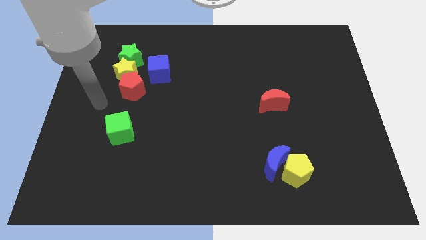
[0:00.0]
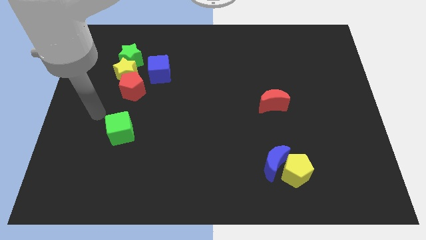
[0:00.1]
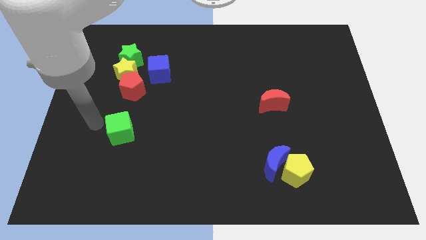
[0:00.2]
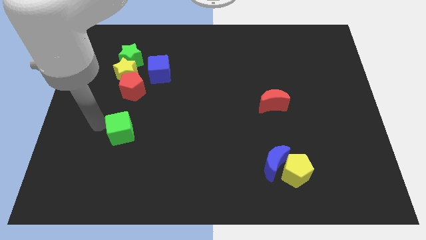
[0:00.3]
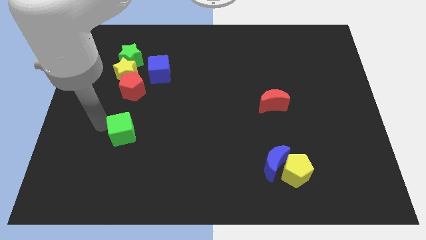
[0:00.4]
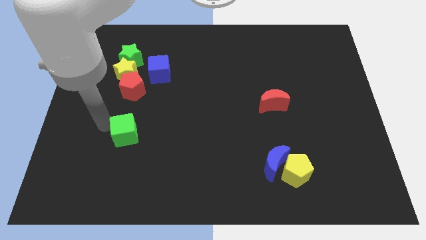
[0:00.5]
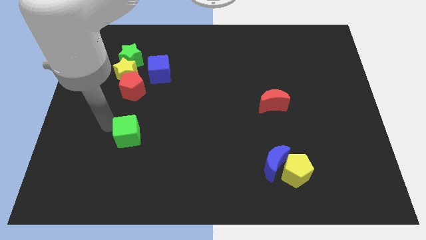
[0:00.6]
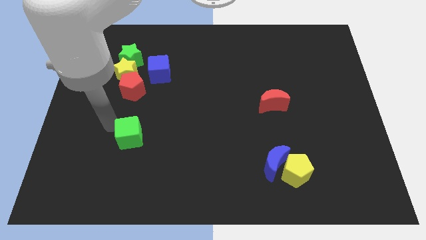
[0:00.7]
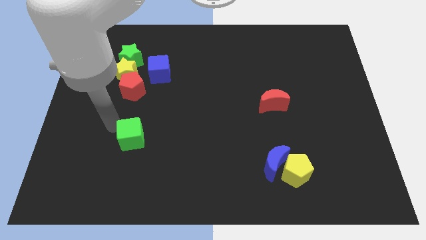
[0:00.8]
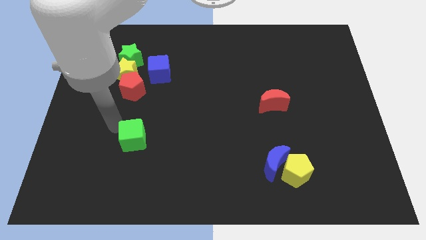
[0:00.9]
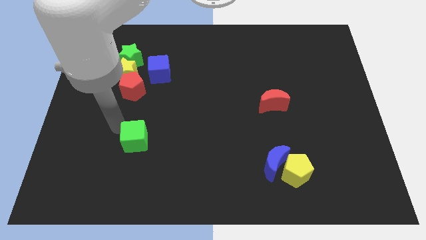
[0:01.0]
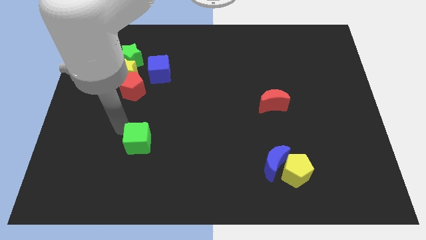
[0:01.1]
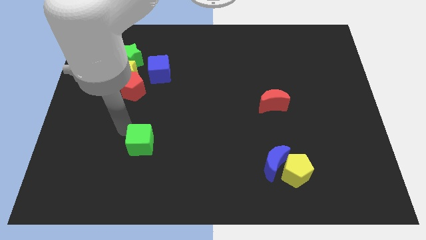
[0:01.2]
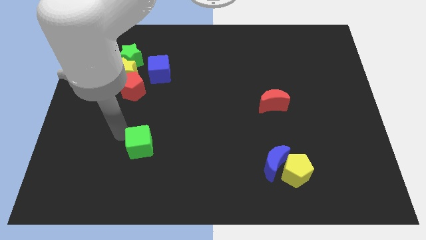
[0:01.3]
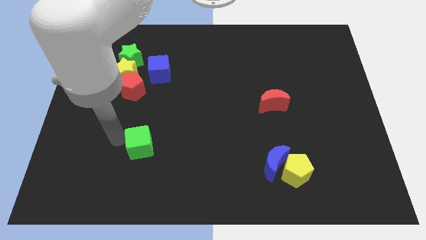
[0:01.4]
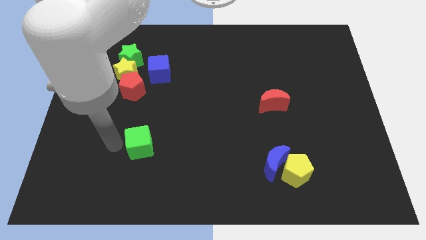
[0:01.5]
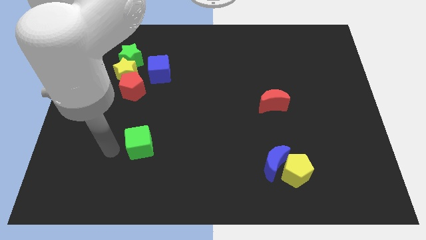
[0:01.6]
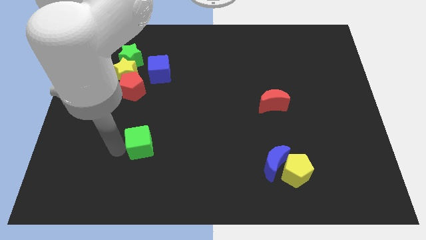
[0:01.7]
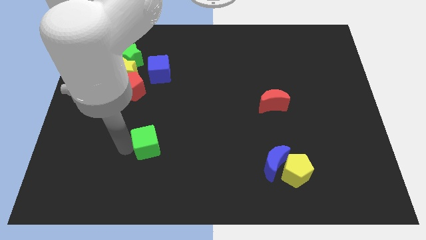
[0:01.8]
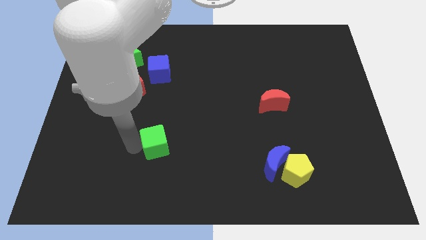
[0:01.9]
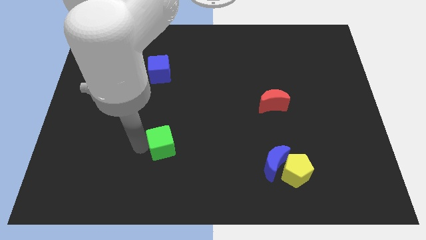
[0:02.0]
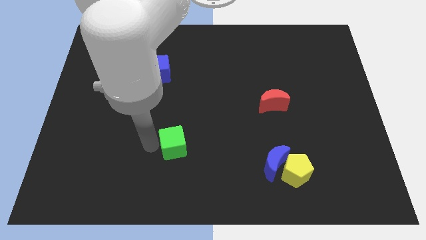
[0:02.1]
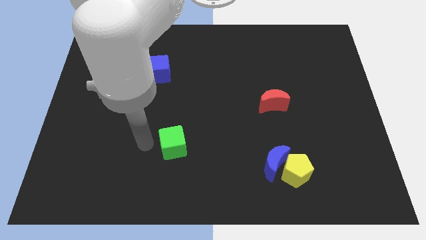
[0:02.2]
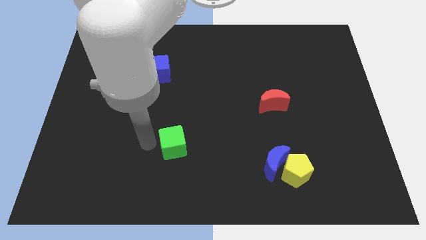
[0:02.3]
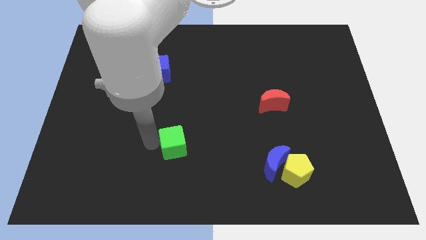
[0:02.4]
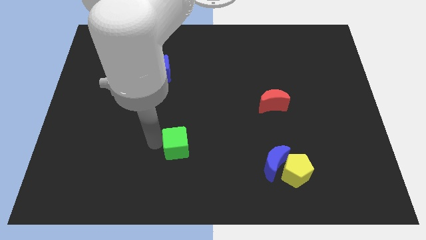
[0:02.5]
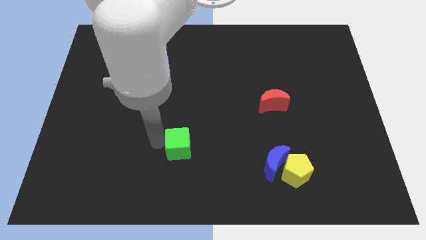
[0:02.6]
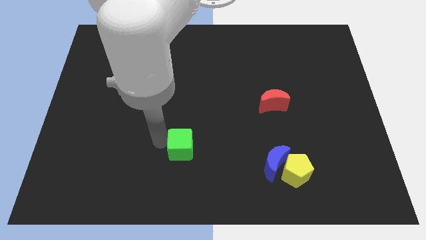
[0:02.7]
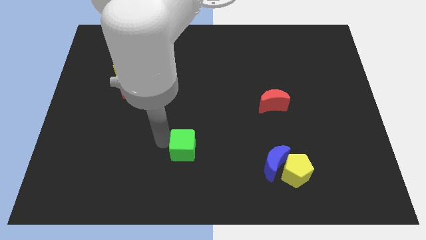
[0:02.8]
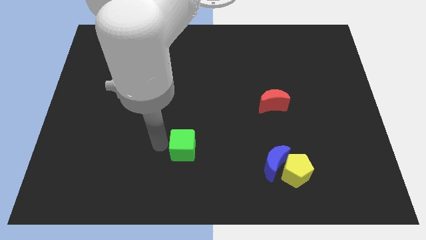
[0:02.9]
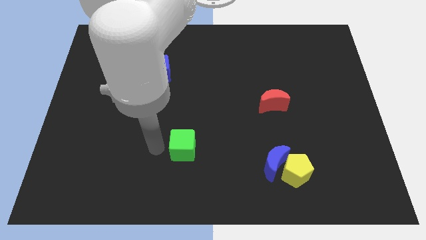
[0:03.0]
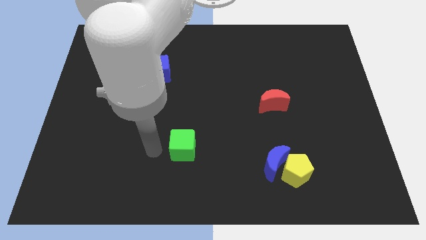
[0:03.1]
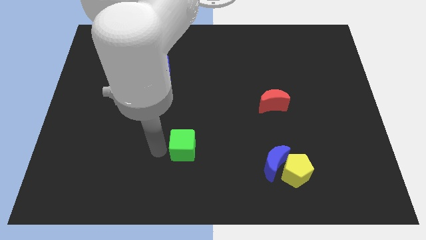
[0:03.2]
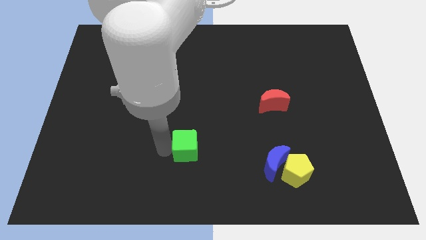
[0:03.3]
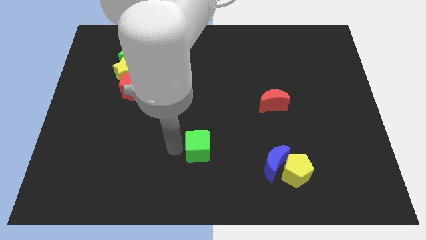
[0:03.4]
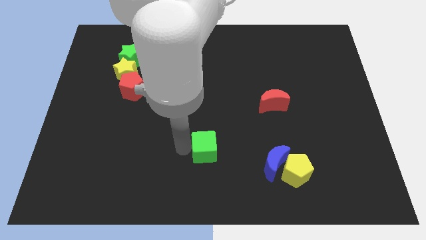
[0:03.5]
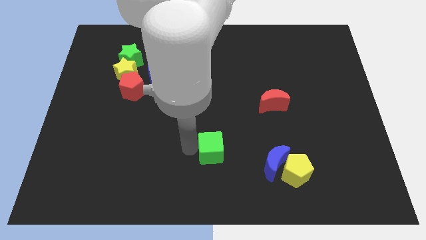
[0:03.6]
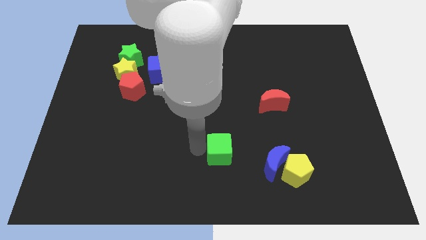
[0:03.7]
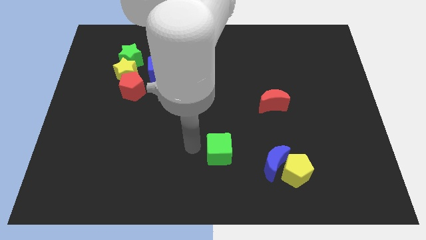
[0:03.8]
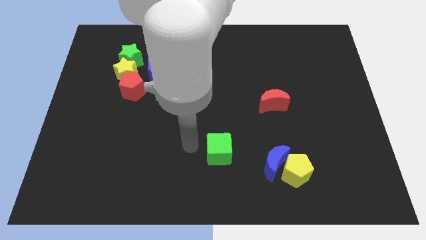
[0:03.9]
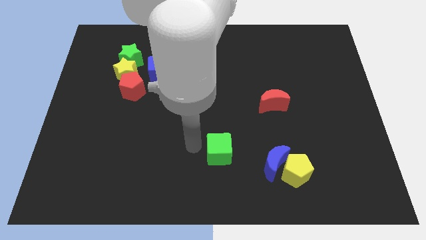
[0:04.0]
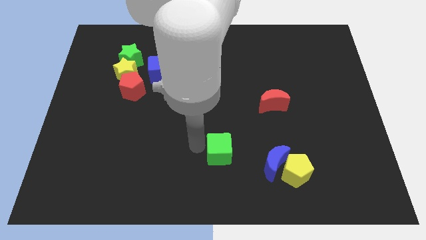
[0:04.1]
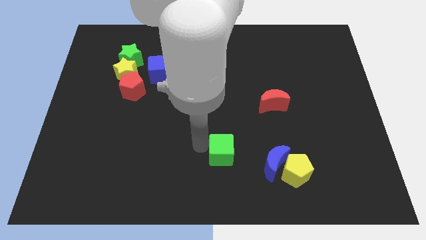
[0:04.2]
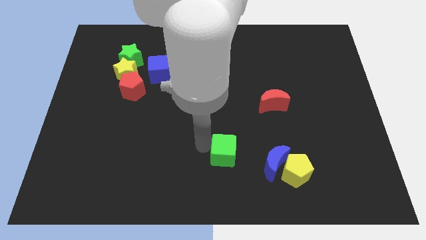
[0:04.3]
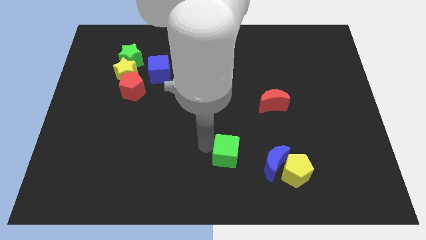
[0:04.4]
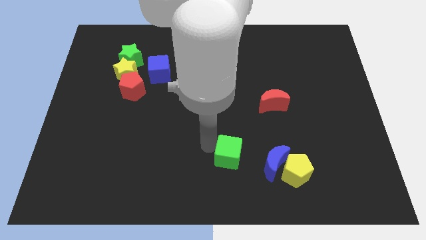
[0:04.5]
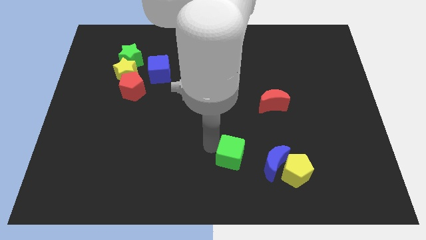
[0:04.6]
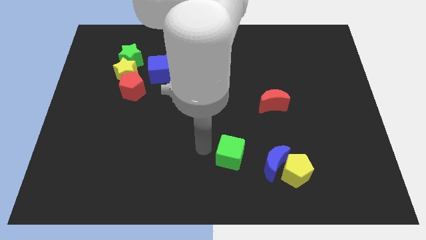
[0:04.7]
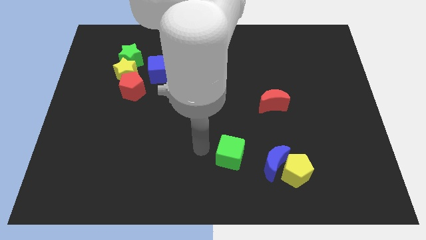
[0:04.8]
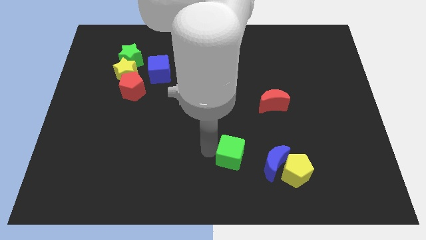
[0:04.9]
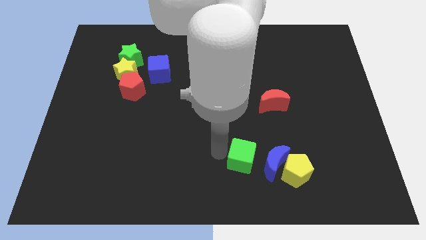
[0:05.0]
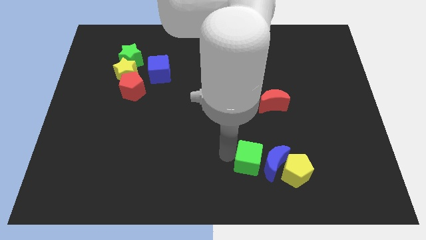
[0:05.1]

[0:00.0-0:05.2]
slide the green cube next to the blue moon

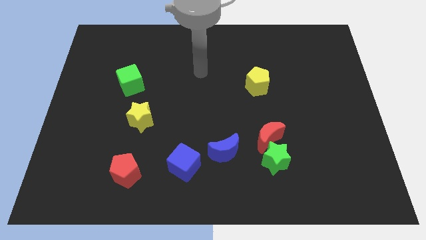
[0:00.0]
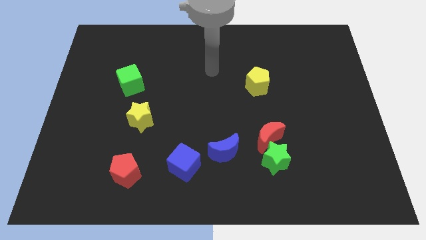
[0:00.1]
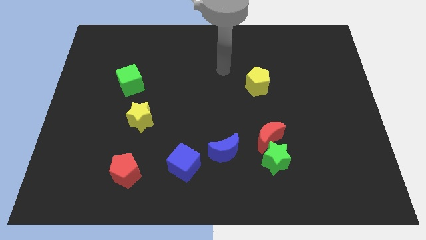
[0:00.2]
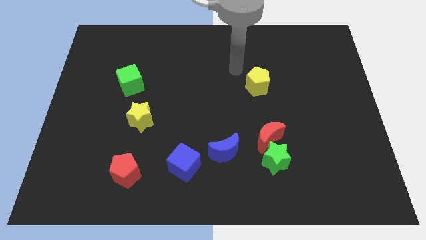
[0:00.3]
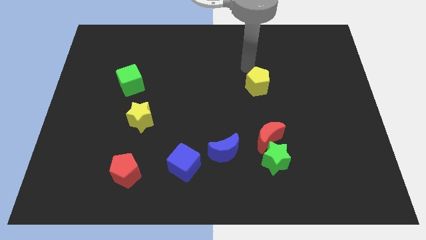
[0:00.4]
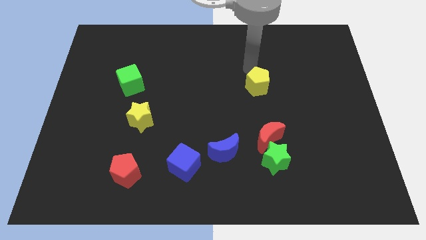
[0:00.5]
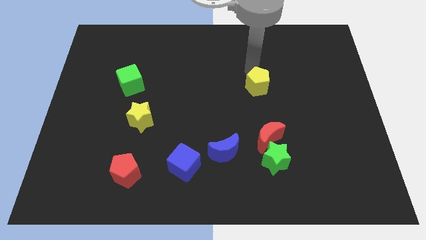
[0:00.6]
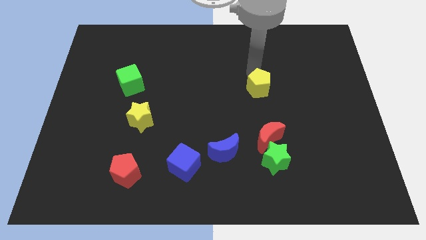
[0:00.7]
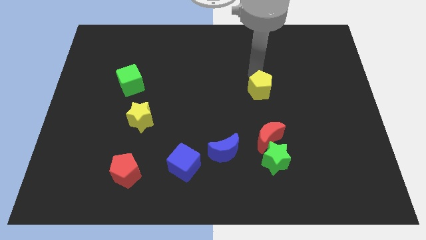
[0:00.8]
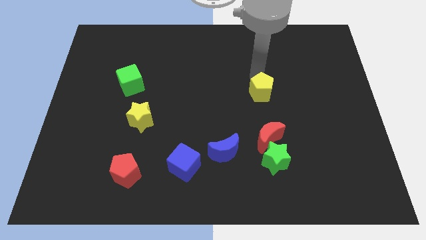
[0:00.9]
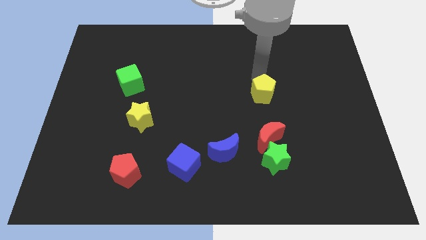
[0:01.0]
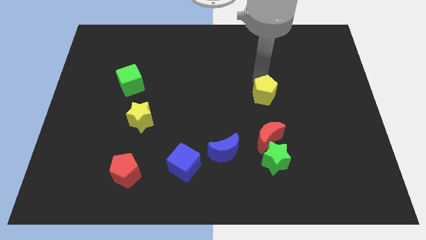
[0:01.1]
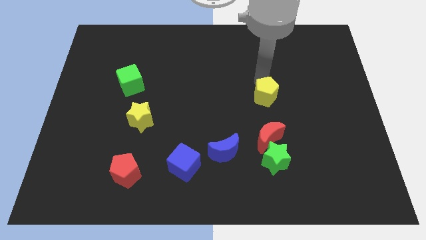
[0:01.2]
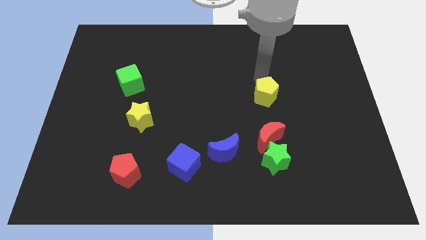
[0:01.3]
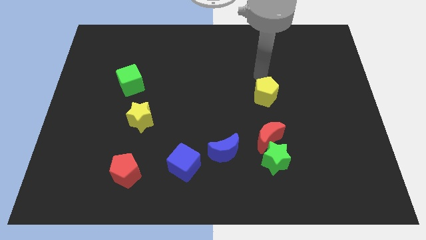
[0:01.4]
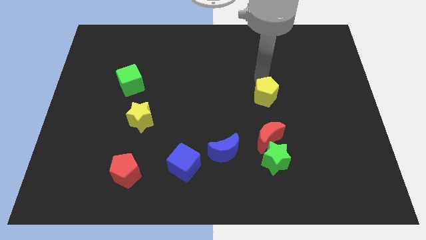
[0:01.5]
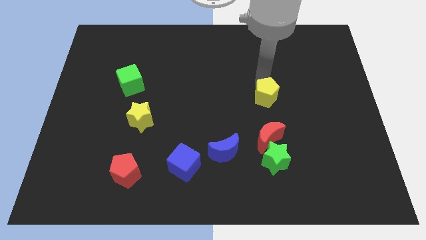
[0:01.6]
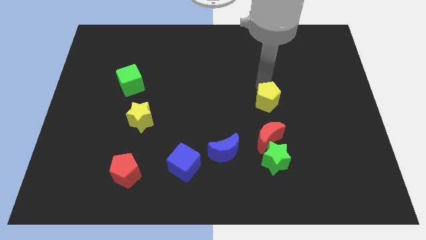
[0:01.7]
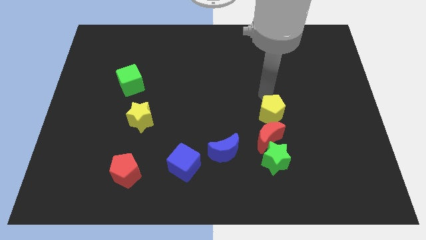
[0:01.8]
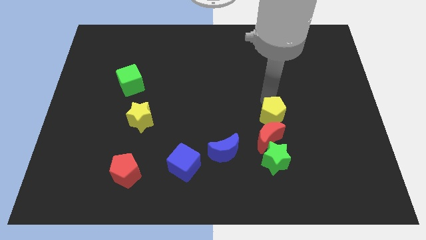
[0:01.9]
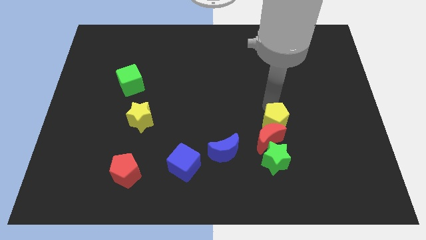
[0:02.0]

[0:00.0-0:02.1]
push the yellow pentagon to the red moon
